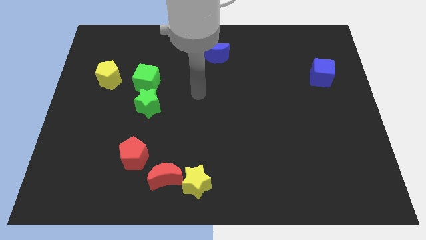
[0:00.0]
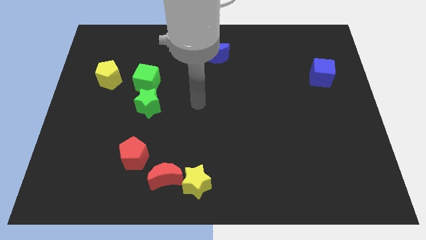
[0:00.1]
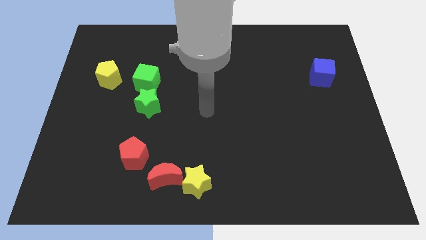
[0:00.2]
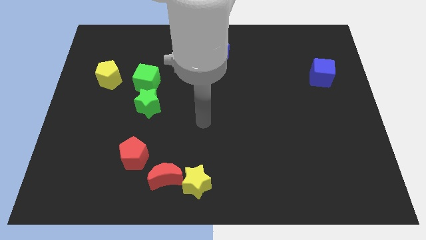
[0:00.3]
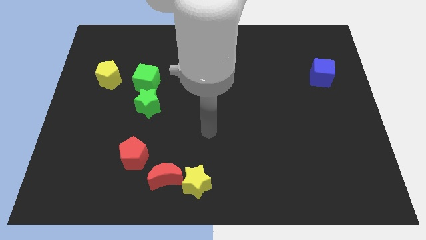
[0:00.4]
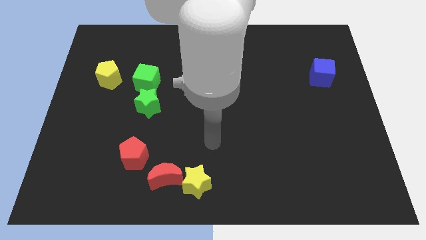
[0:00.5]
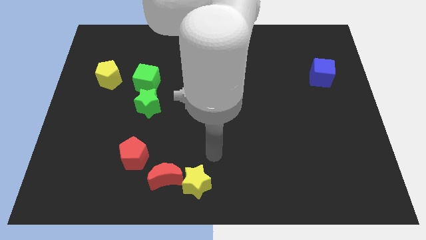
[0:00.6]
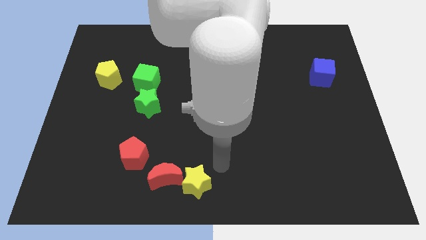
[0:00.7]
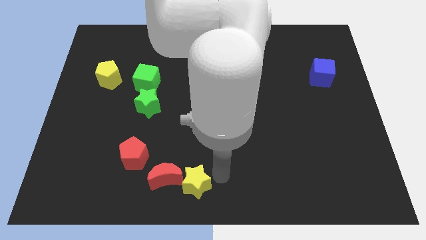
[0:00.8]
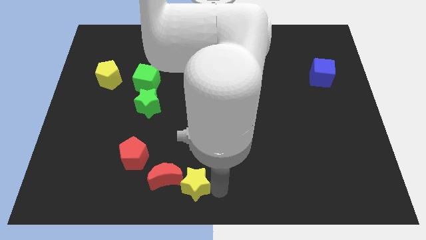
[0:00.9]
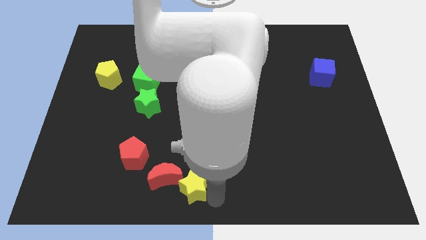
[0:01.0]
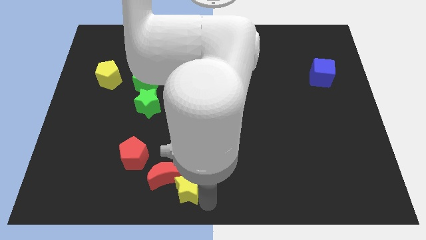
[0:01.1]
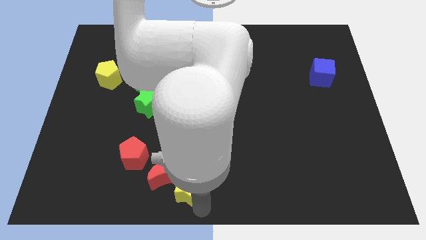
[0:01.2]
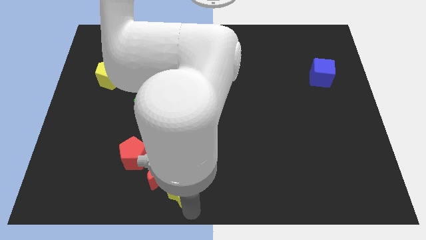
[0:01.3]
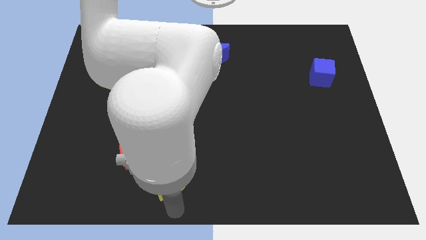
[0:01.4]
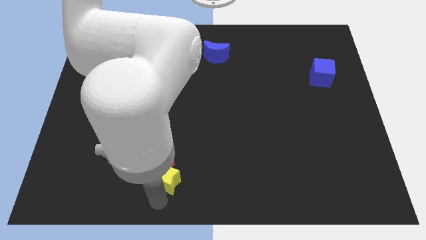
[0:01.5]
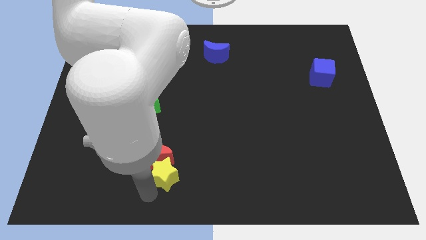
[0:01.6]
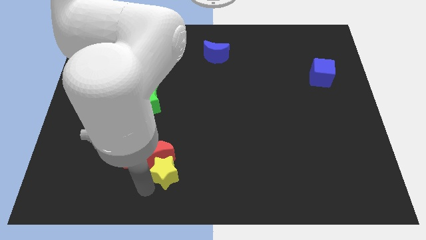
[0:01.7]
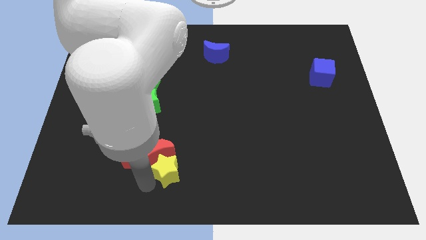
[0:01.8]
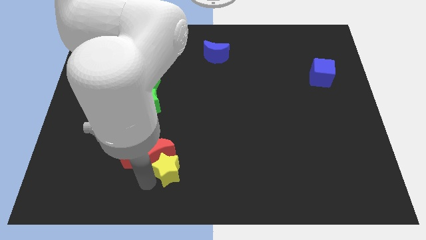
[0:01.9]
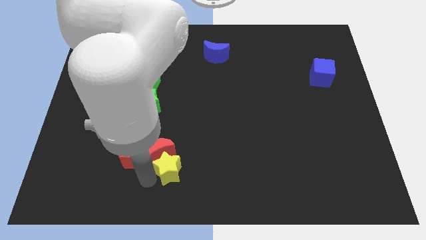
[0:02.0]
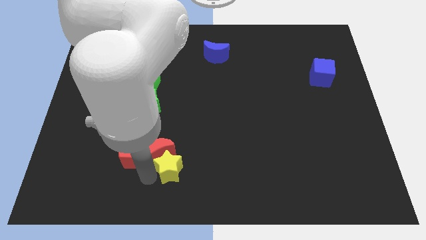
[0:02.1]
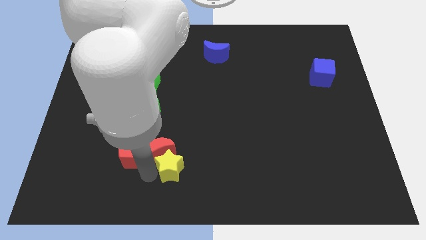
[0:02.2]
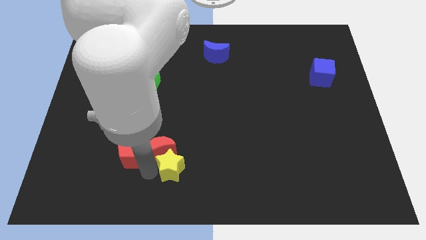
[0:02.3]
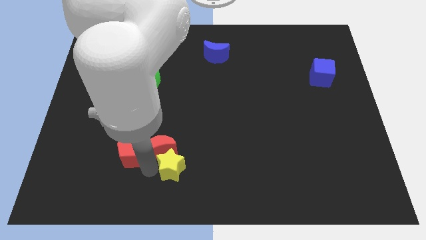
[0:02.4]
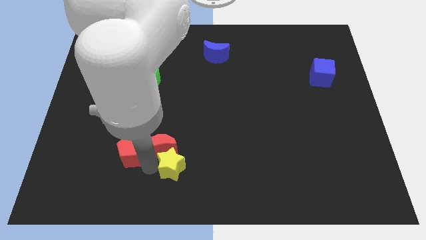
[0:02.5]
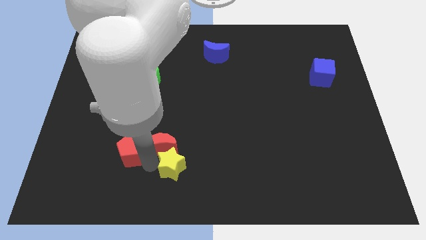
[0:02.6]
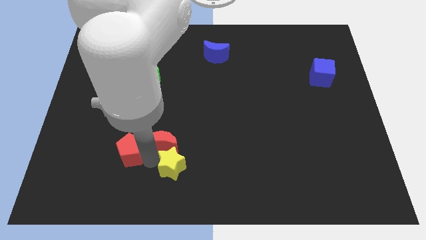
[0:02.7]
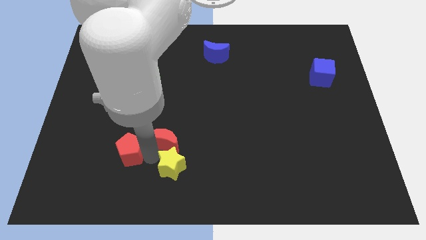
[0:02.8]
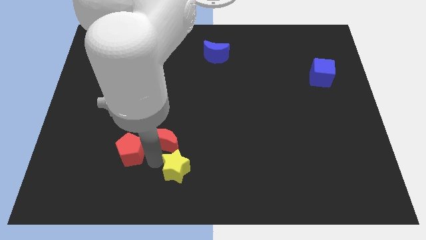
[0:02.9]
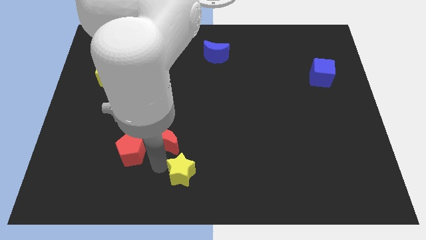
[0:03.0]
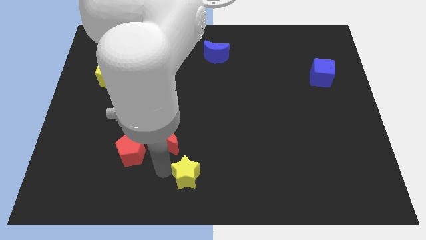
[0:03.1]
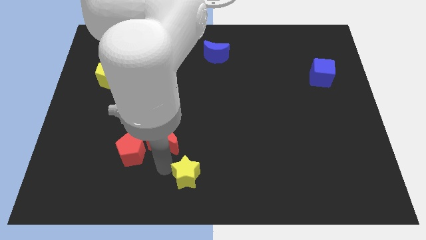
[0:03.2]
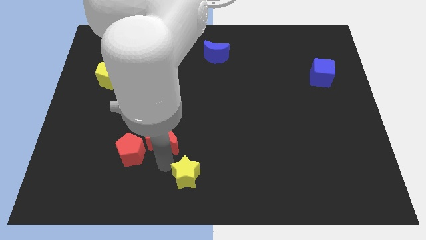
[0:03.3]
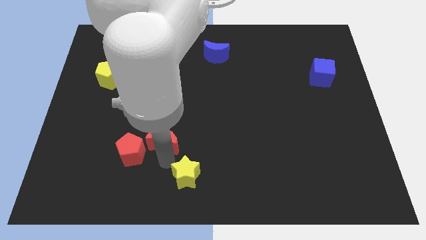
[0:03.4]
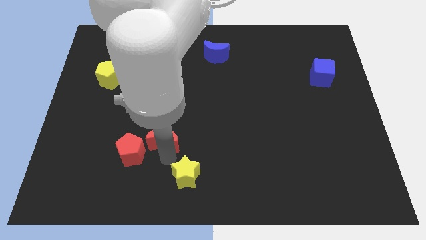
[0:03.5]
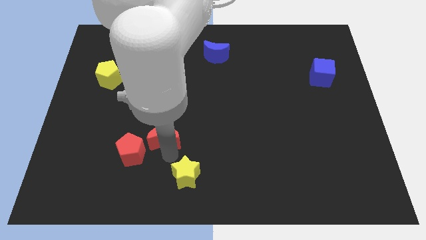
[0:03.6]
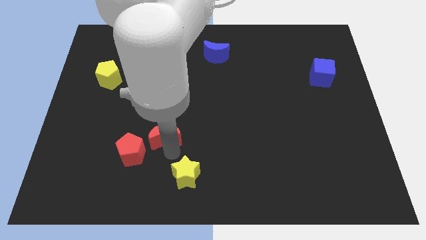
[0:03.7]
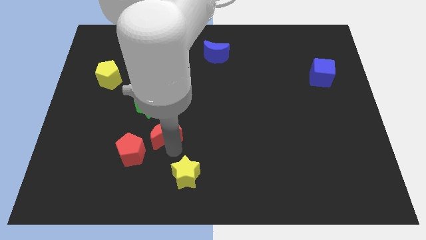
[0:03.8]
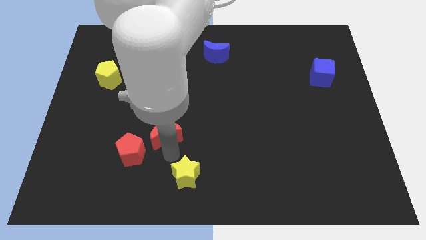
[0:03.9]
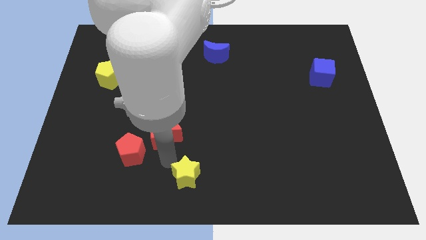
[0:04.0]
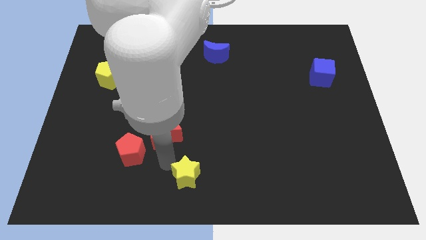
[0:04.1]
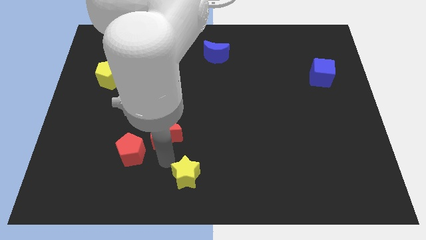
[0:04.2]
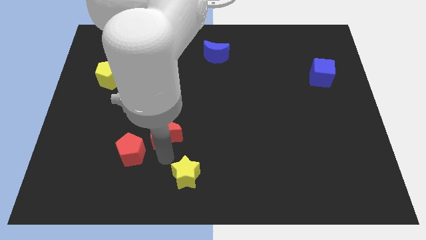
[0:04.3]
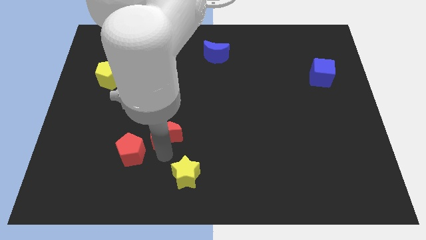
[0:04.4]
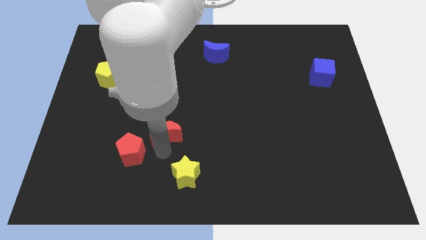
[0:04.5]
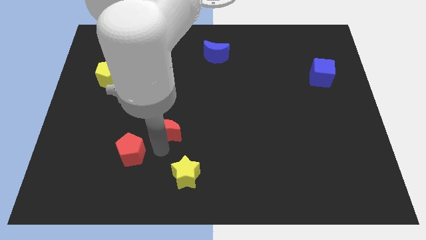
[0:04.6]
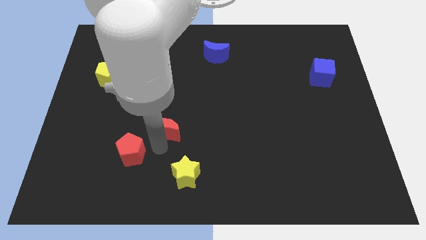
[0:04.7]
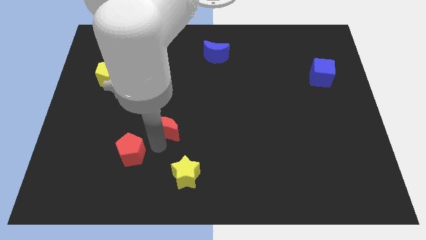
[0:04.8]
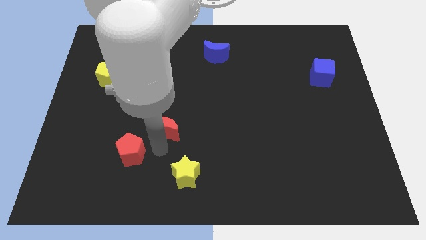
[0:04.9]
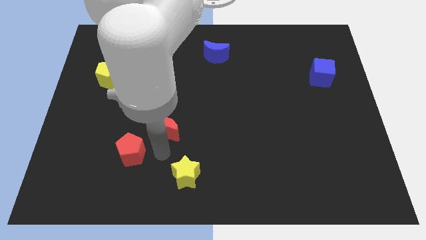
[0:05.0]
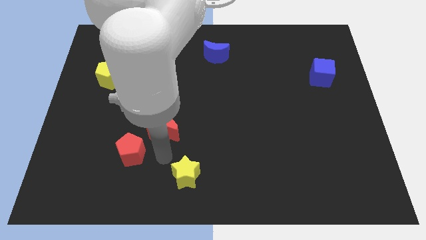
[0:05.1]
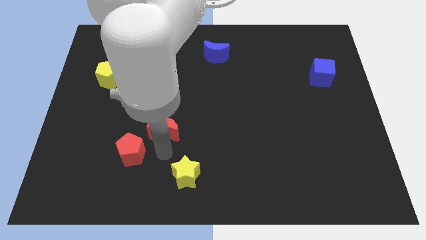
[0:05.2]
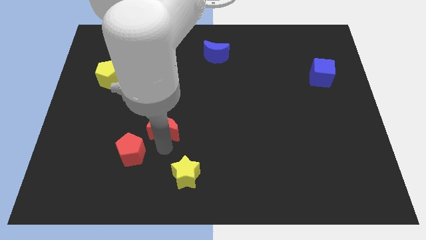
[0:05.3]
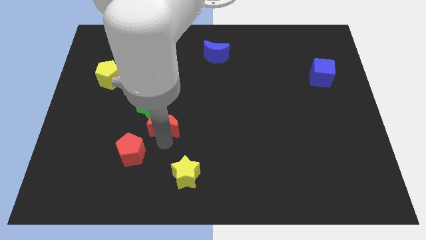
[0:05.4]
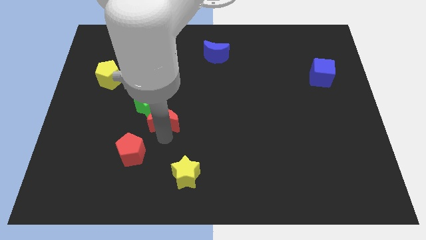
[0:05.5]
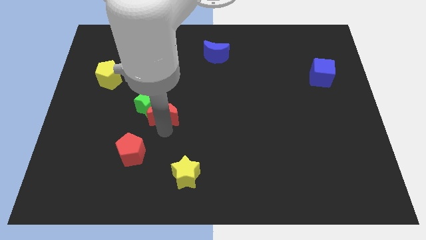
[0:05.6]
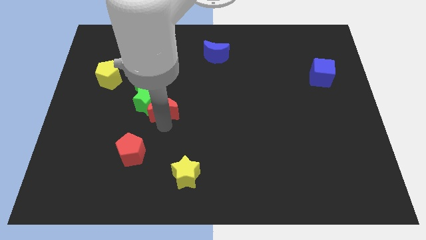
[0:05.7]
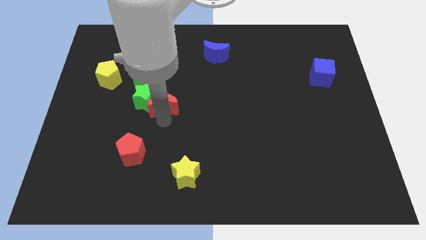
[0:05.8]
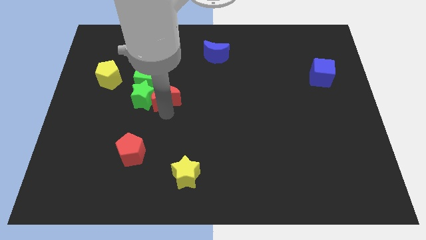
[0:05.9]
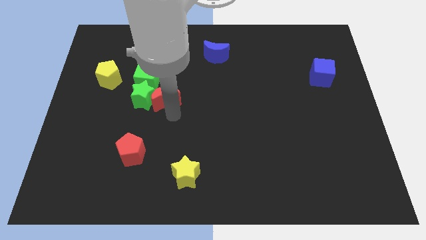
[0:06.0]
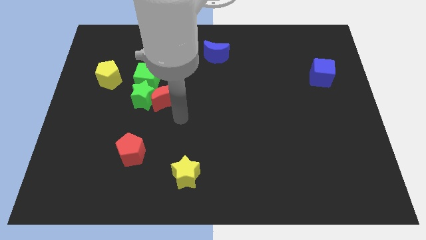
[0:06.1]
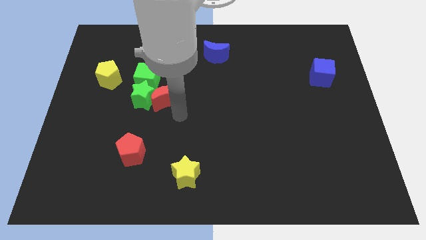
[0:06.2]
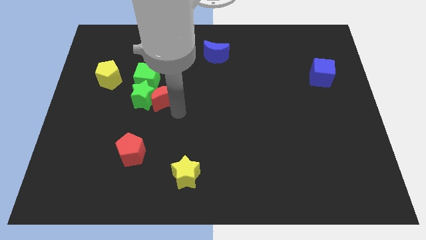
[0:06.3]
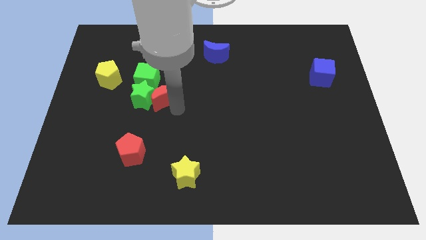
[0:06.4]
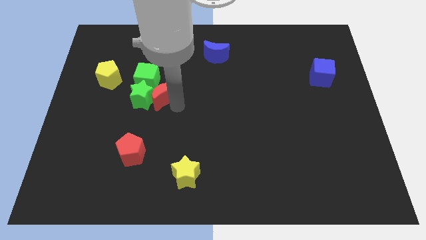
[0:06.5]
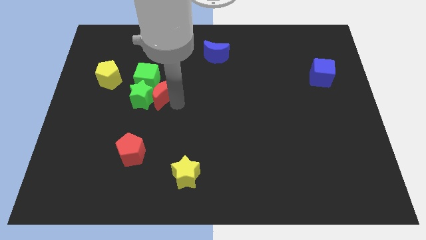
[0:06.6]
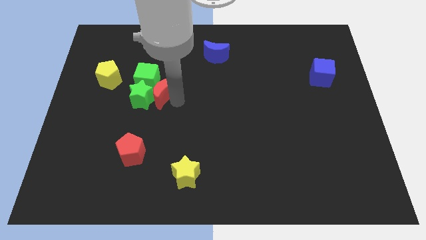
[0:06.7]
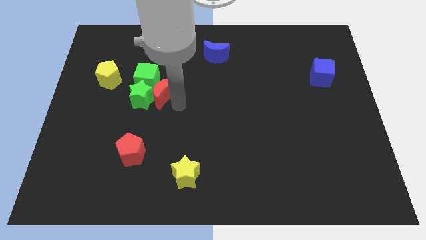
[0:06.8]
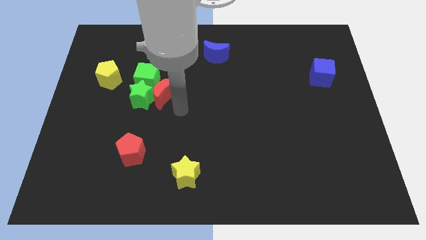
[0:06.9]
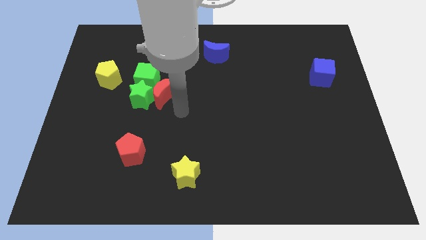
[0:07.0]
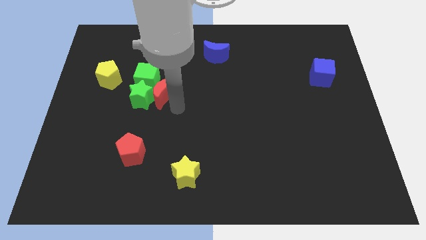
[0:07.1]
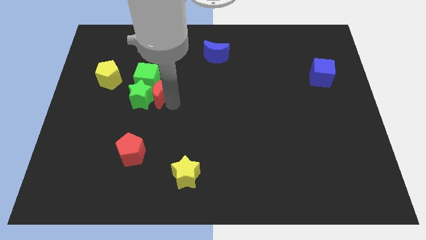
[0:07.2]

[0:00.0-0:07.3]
move the red moon next to the green cube

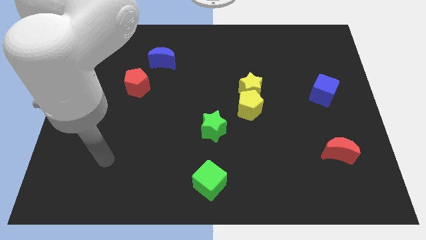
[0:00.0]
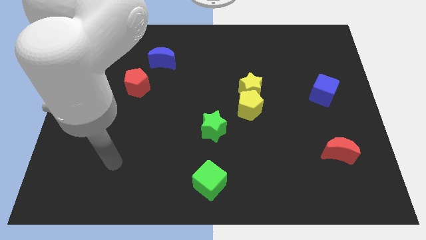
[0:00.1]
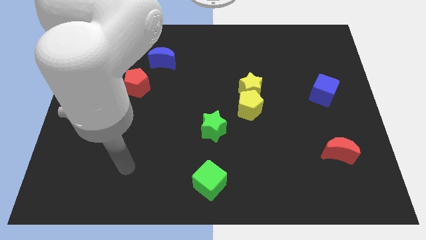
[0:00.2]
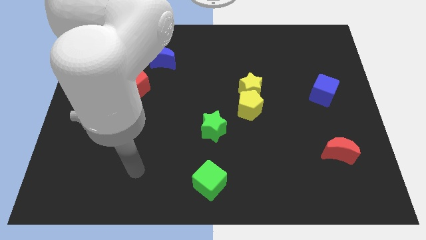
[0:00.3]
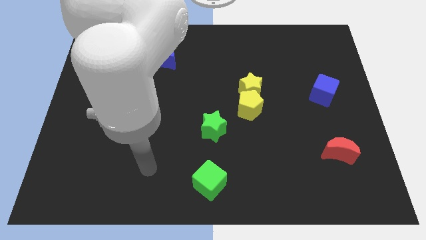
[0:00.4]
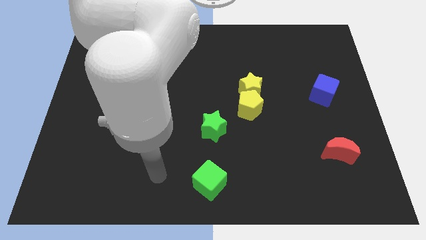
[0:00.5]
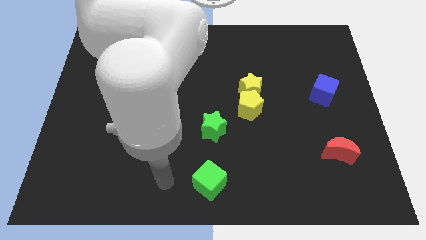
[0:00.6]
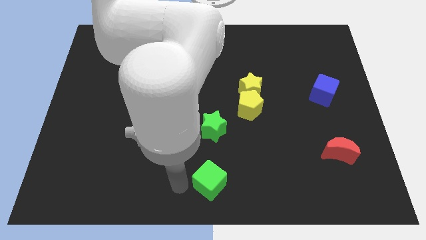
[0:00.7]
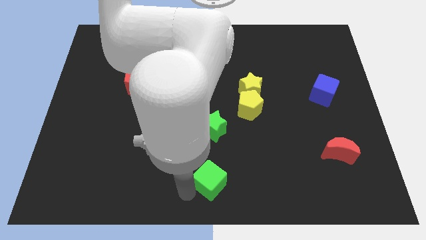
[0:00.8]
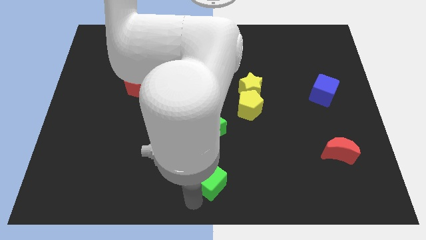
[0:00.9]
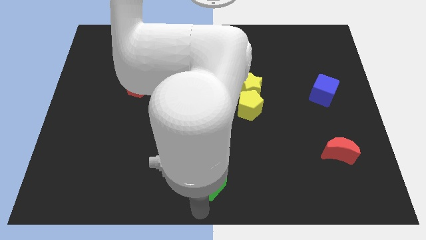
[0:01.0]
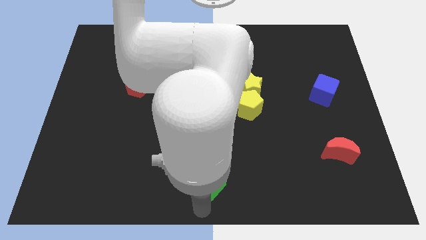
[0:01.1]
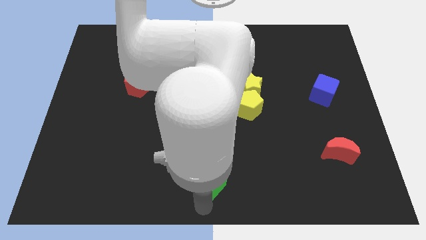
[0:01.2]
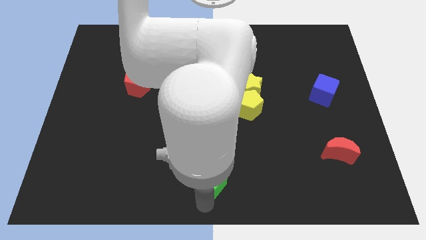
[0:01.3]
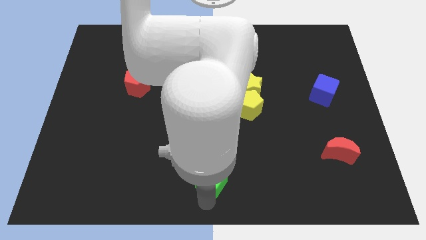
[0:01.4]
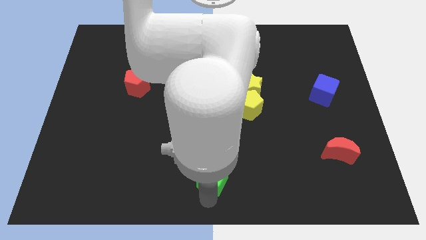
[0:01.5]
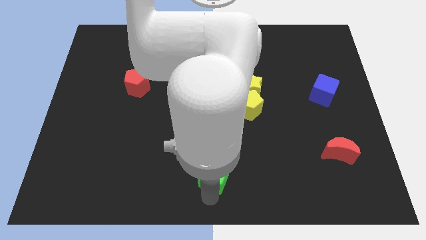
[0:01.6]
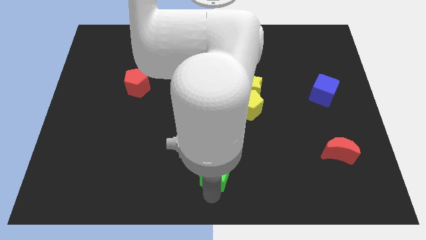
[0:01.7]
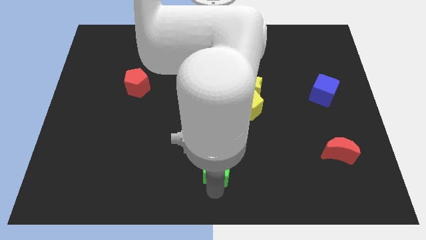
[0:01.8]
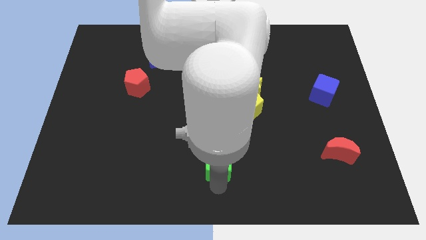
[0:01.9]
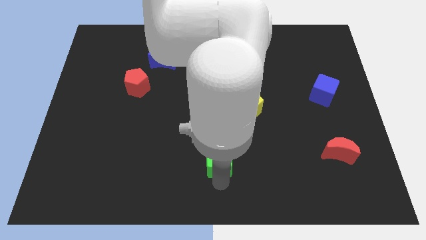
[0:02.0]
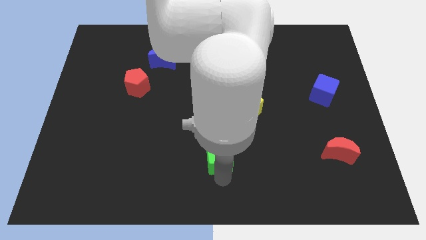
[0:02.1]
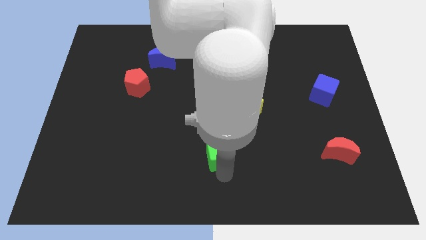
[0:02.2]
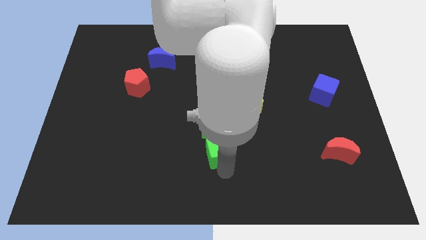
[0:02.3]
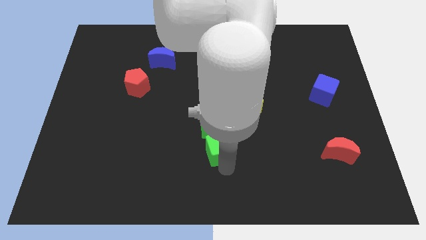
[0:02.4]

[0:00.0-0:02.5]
slide the green cube next to the green star
